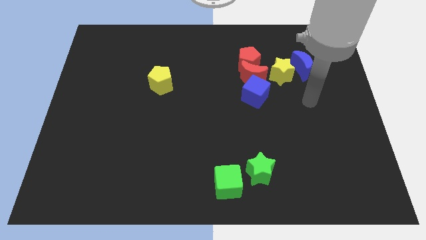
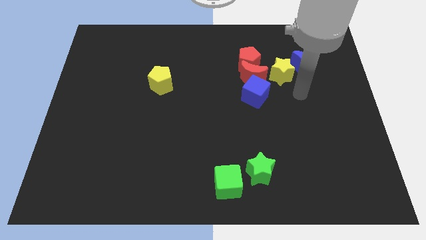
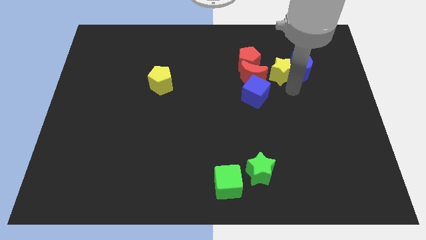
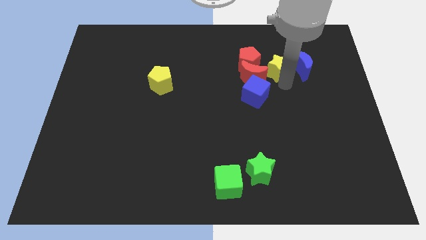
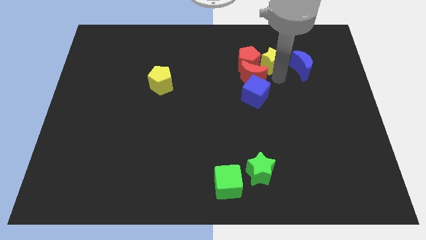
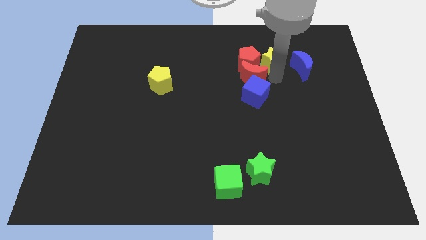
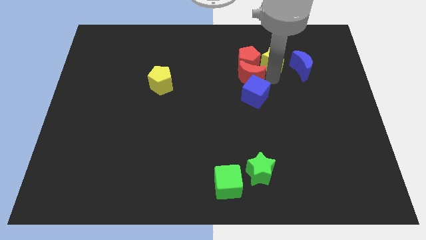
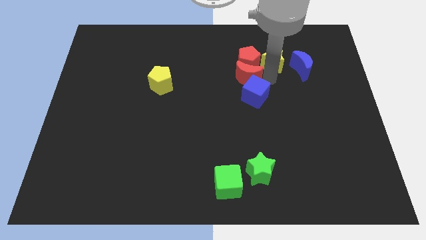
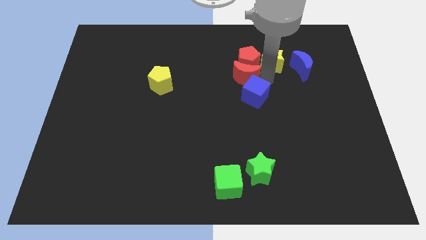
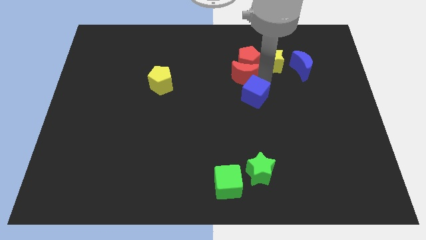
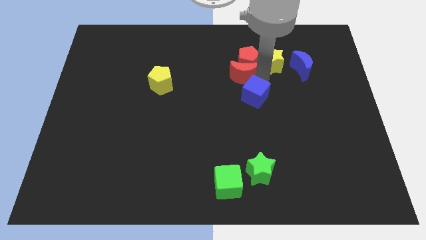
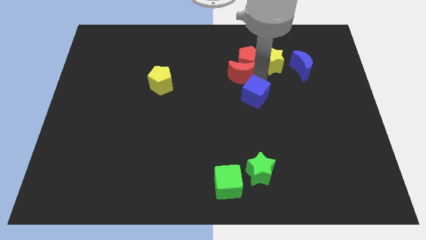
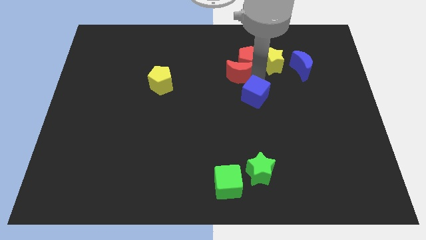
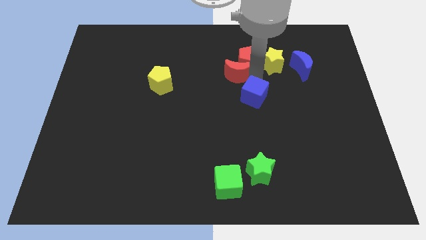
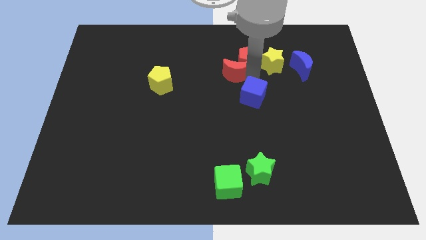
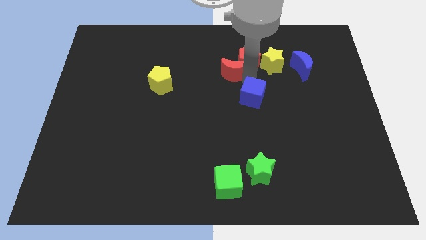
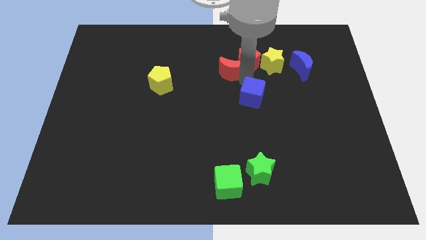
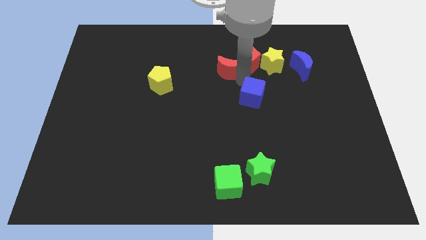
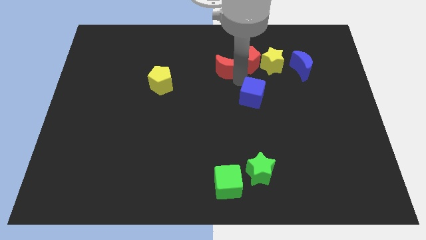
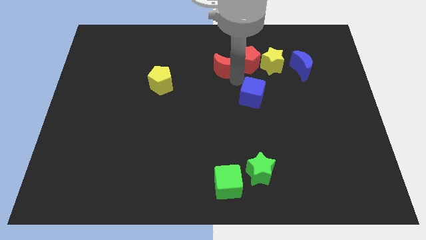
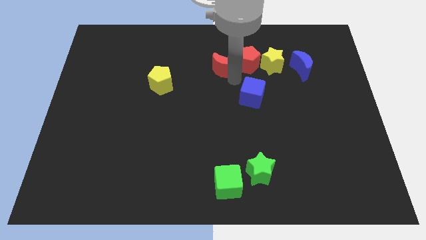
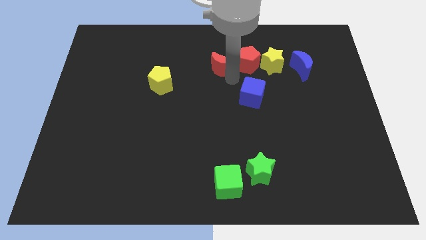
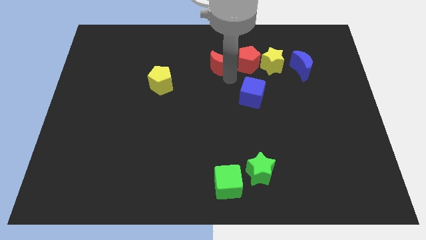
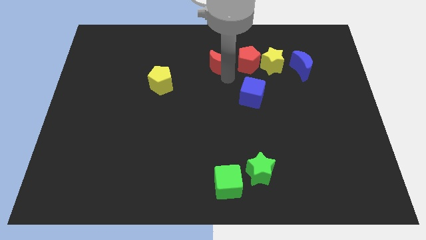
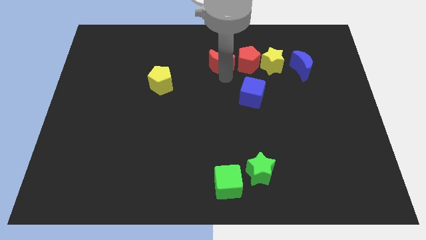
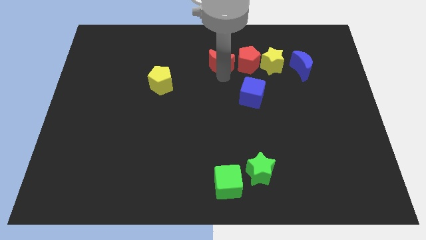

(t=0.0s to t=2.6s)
separate the red moon from the red pentagon, blue cube, and yellow star

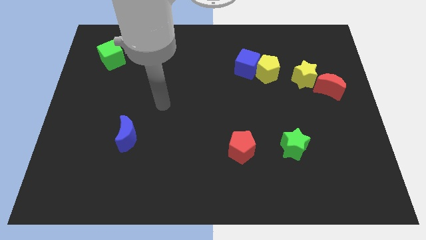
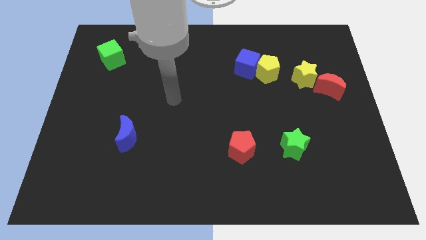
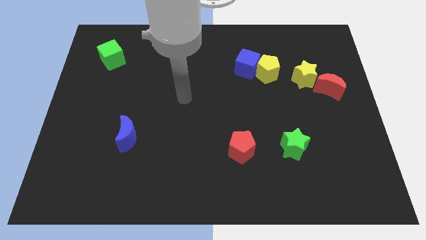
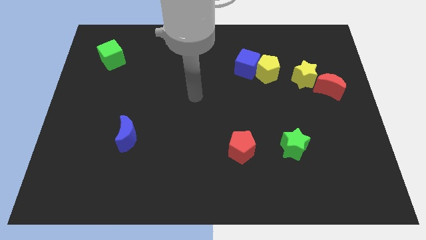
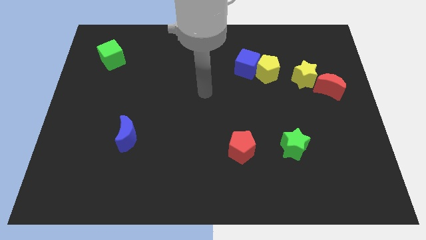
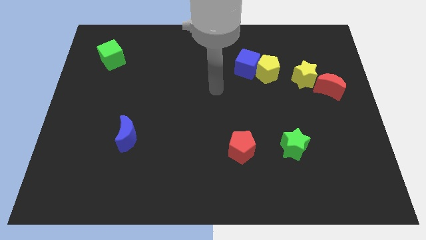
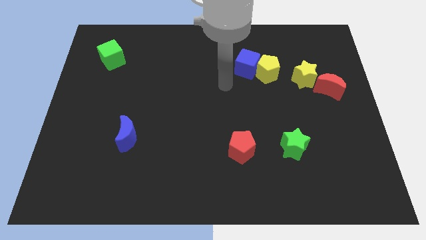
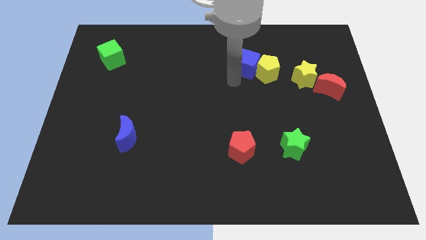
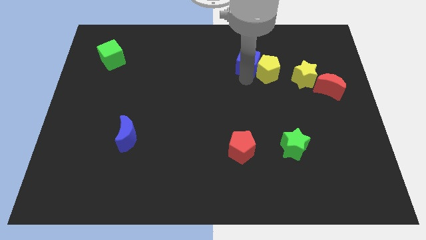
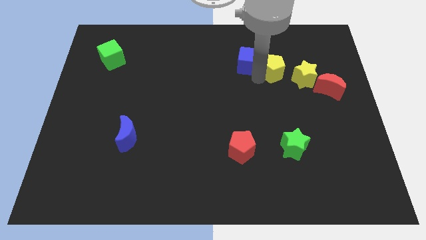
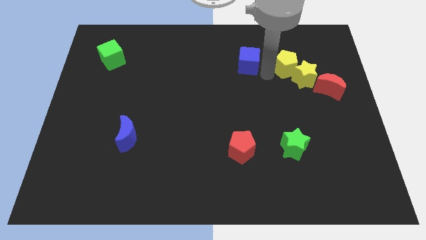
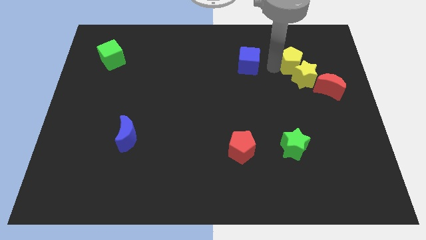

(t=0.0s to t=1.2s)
pull the blue cube apart from the yellow pentagon

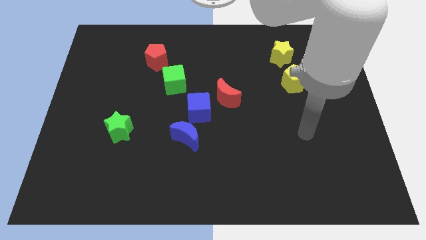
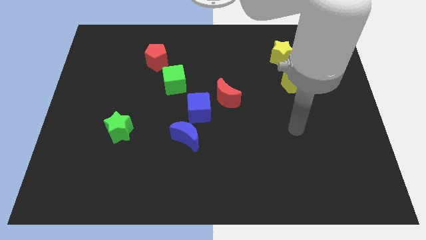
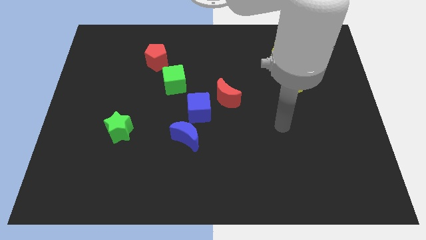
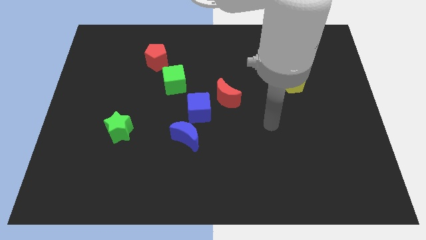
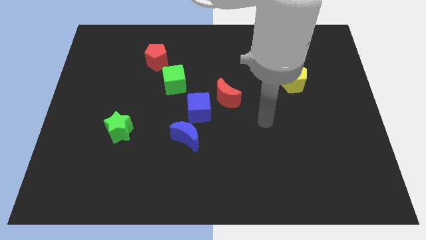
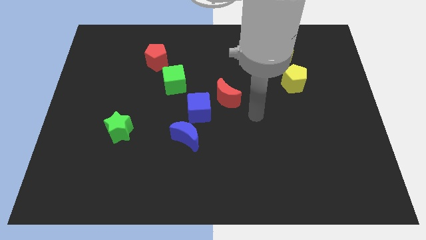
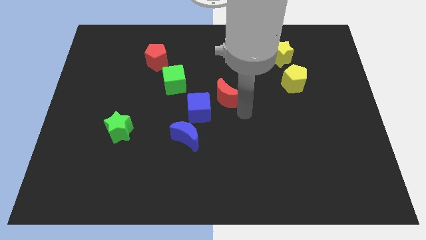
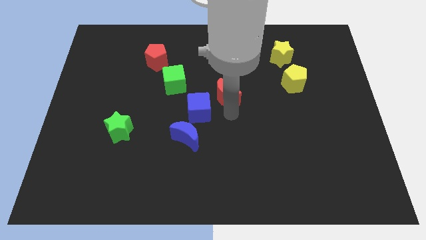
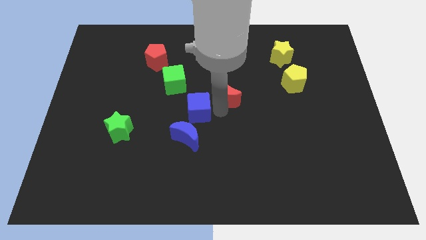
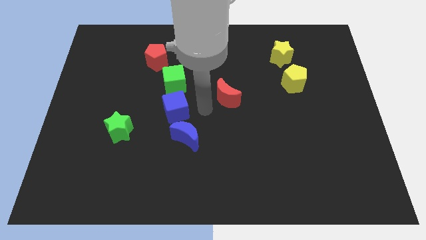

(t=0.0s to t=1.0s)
move the red moon away from the blue cube

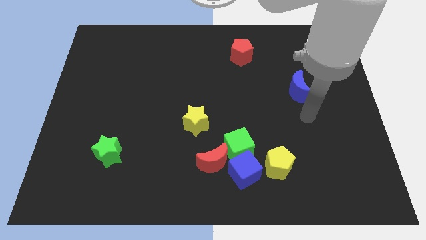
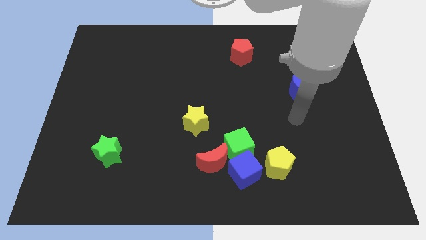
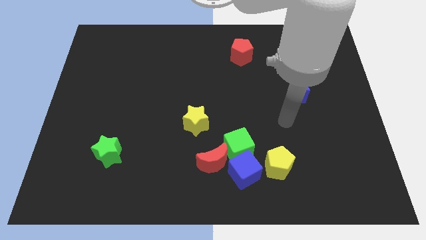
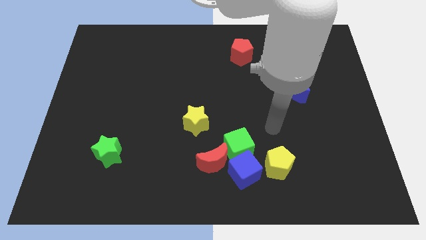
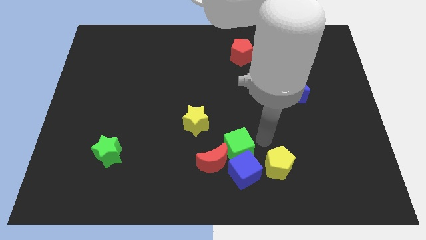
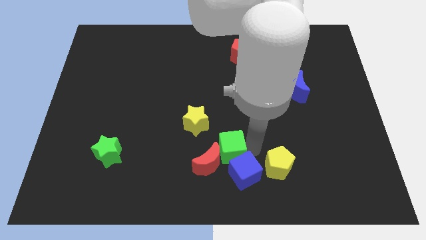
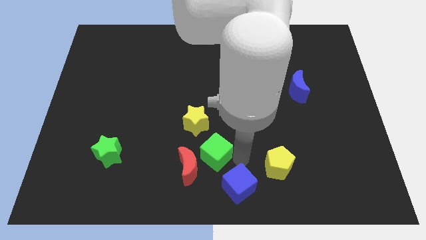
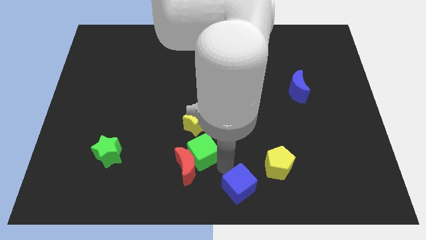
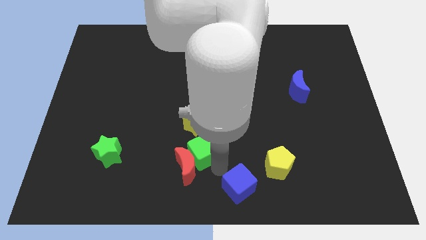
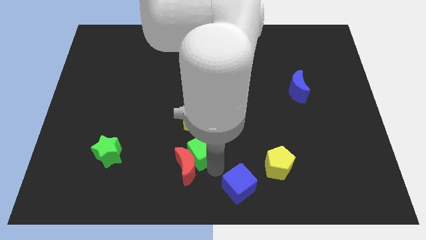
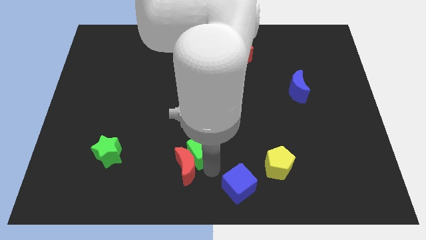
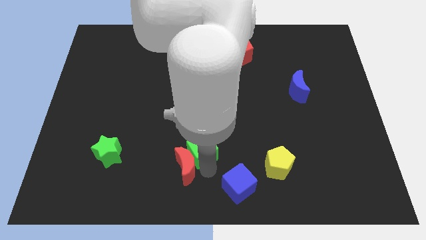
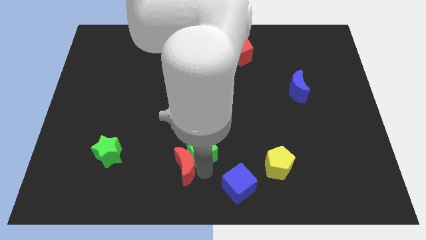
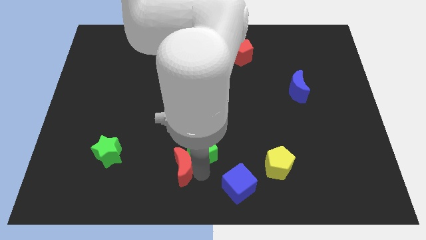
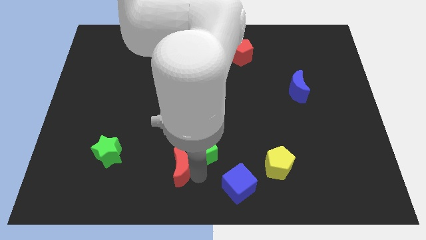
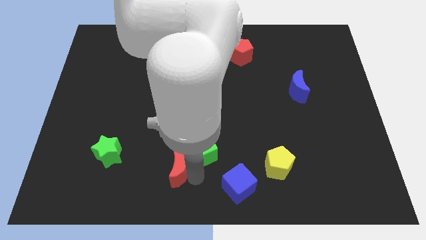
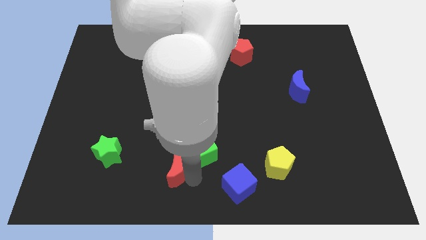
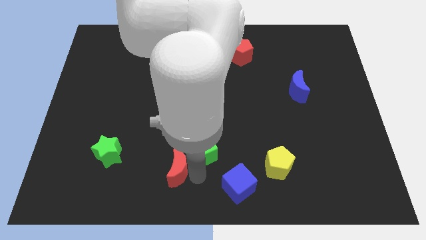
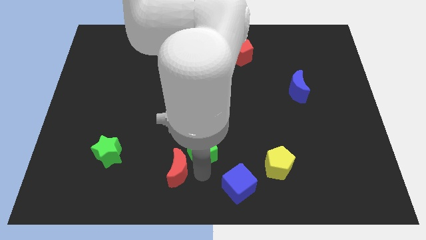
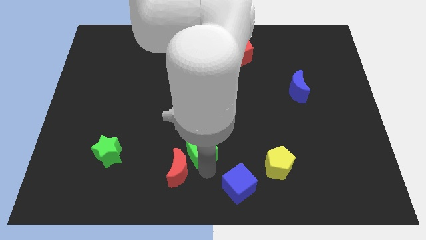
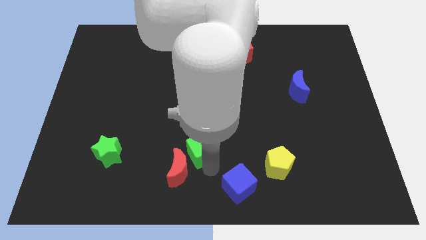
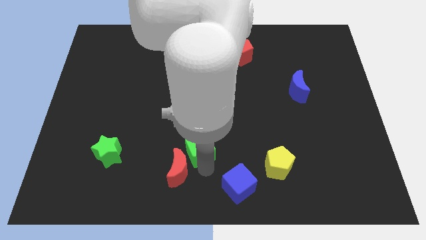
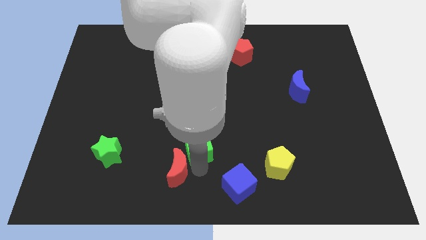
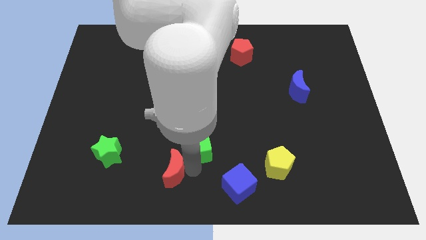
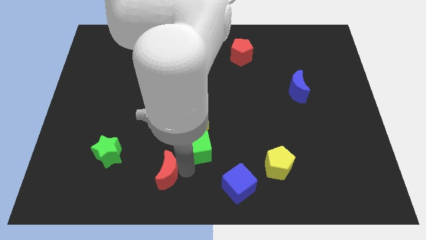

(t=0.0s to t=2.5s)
move the red moon away from the green cube and blue cube

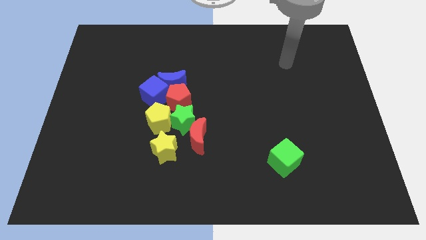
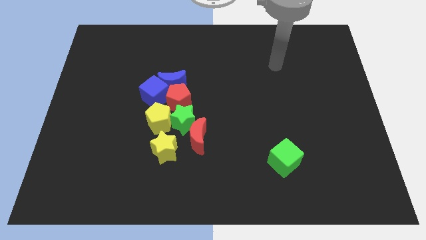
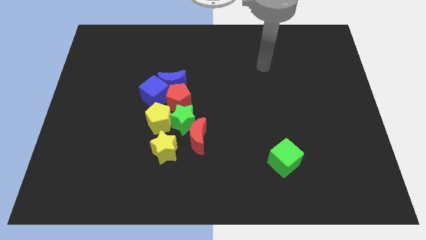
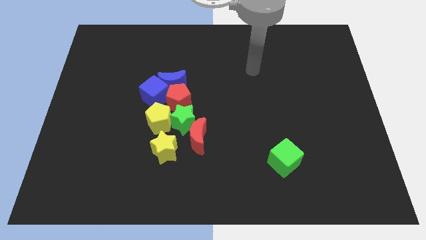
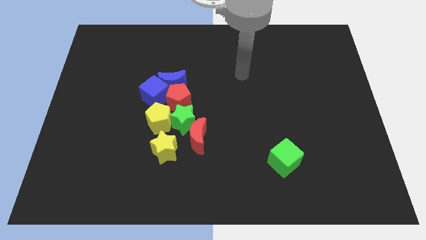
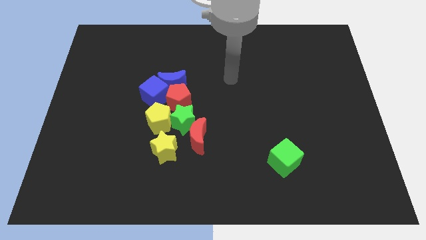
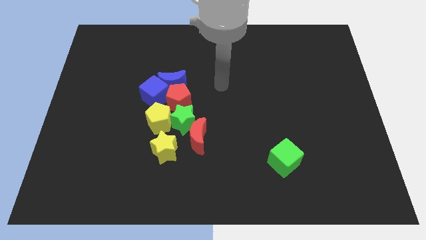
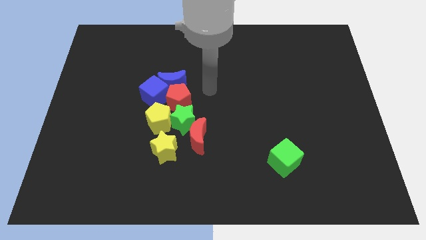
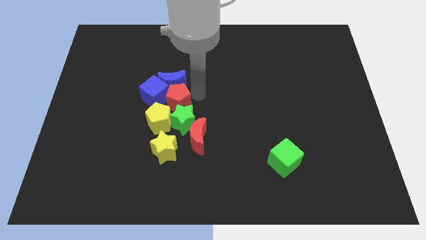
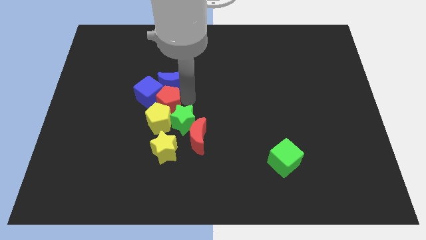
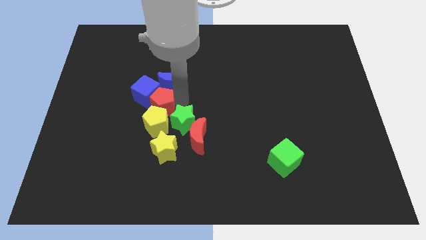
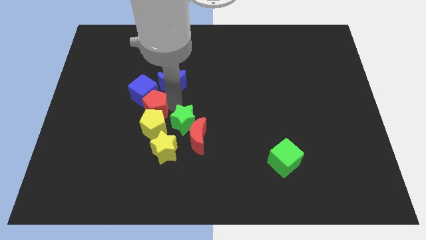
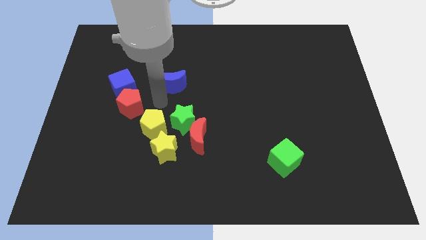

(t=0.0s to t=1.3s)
pull the blue moon apart from the red pentagon and blue cube

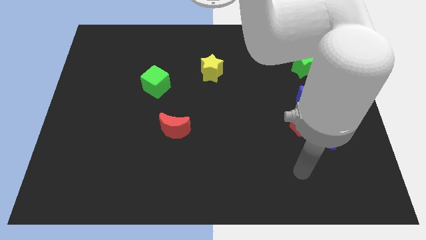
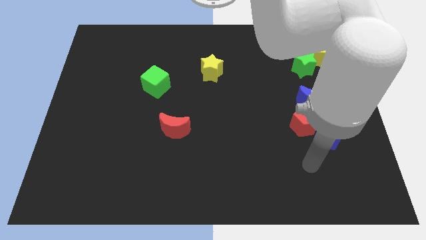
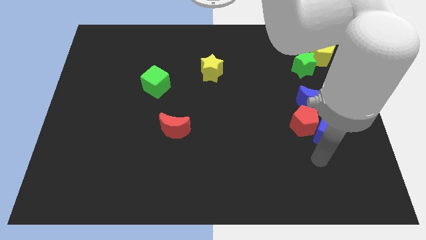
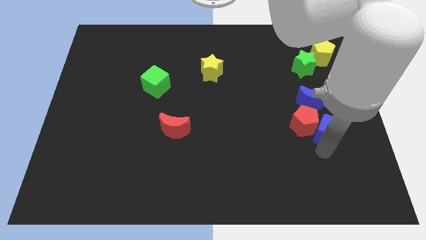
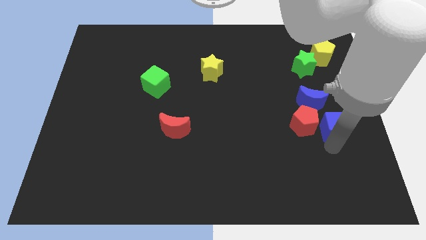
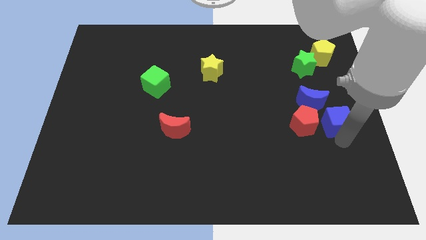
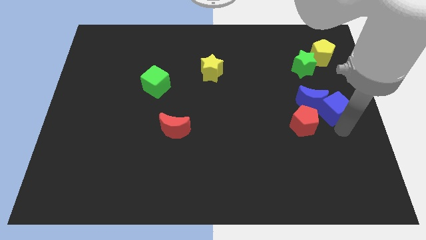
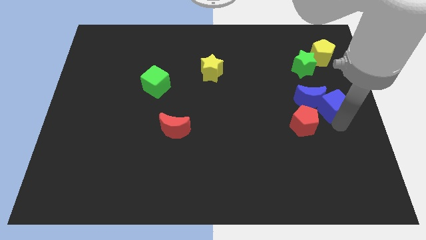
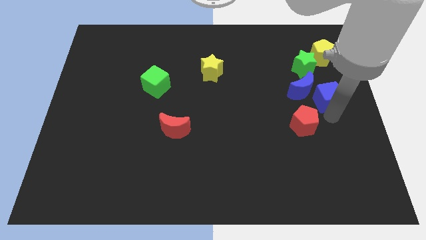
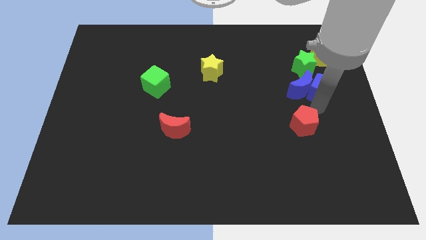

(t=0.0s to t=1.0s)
separate the red pentagon from the blue cube and blue moon
